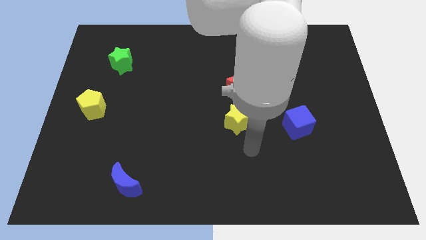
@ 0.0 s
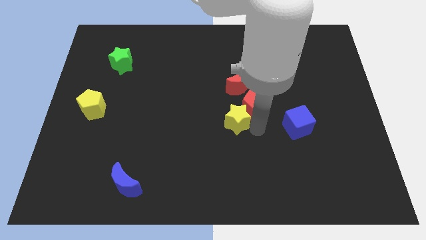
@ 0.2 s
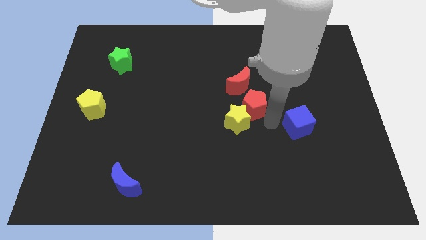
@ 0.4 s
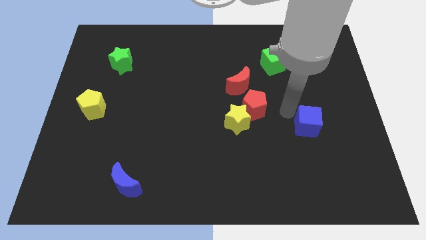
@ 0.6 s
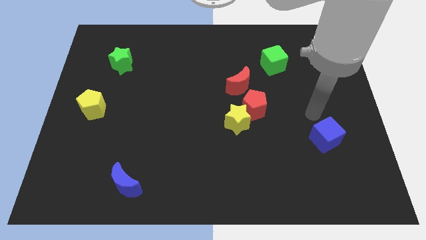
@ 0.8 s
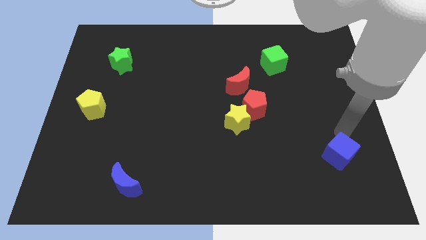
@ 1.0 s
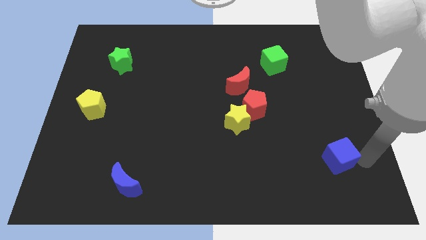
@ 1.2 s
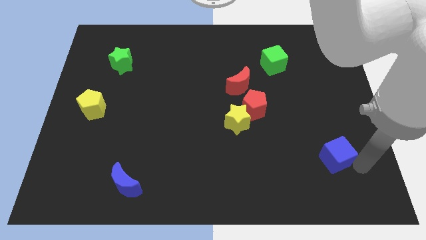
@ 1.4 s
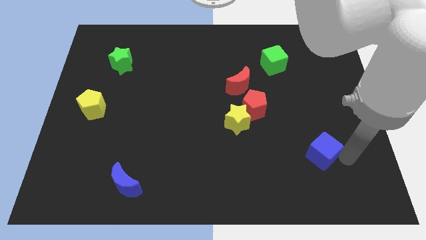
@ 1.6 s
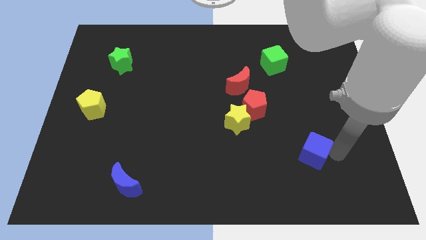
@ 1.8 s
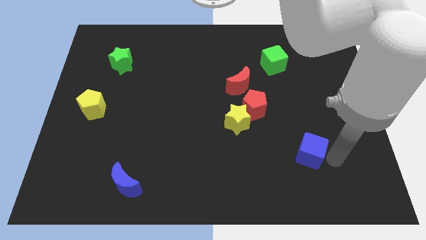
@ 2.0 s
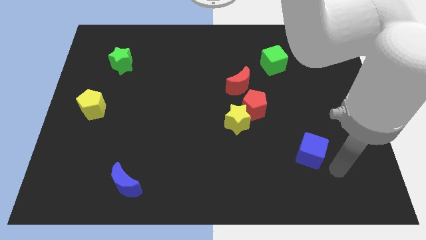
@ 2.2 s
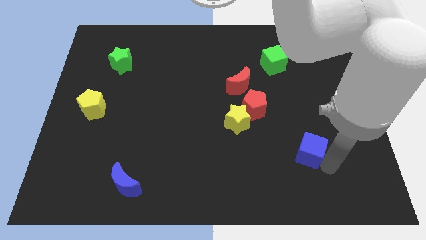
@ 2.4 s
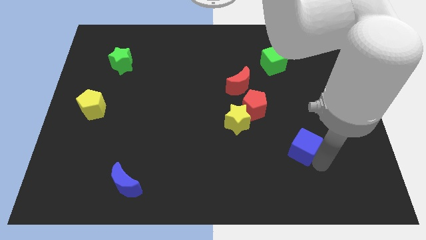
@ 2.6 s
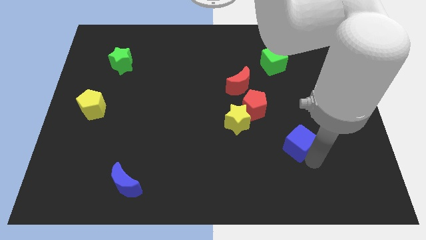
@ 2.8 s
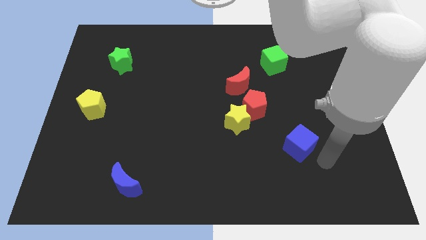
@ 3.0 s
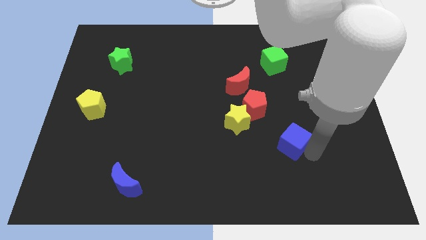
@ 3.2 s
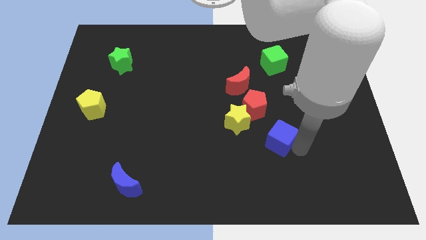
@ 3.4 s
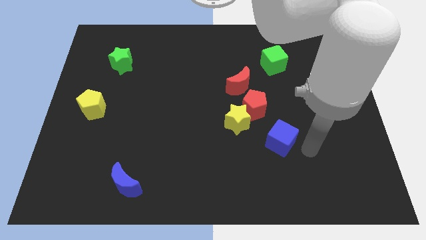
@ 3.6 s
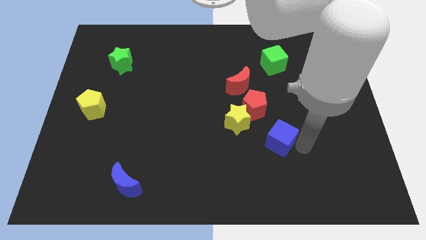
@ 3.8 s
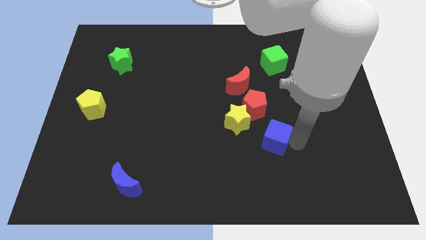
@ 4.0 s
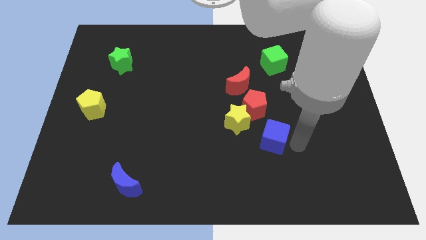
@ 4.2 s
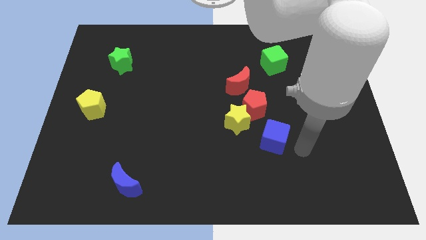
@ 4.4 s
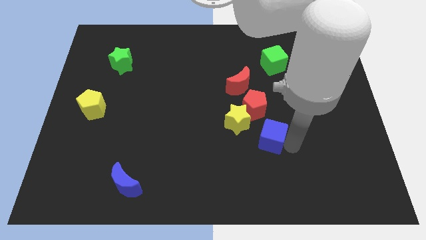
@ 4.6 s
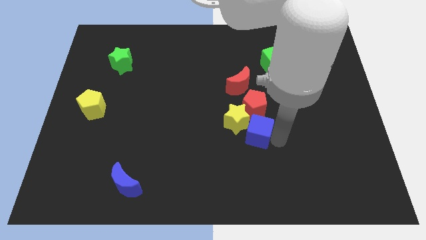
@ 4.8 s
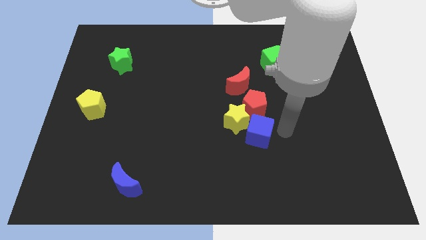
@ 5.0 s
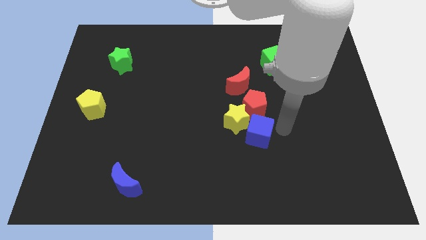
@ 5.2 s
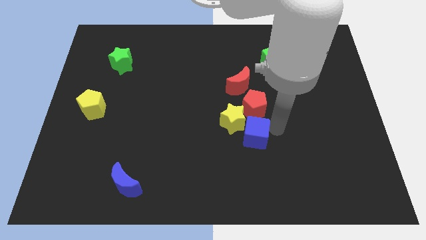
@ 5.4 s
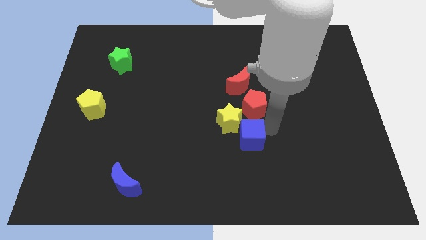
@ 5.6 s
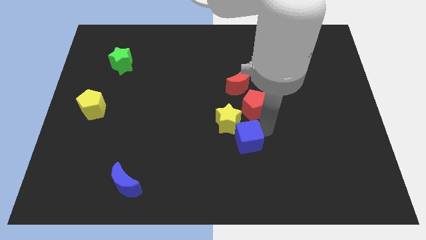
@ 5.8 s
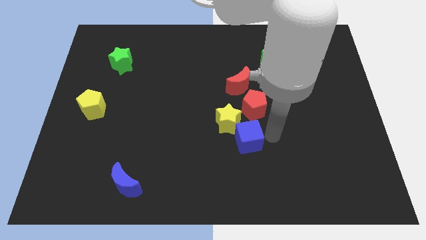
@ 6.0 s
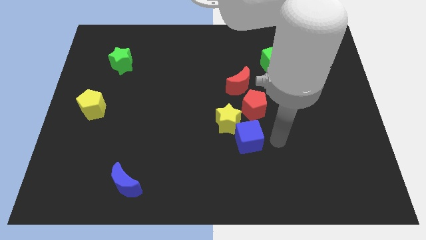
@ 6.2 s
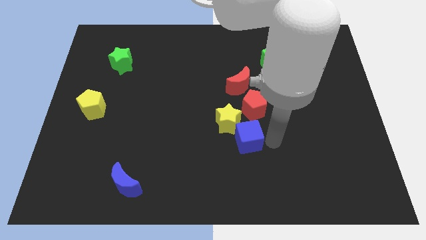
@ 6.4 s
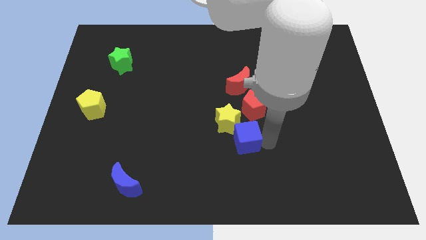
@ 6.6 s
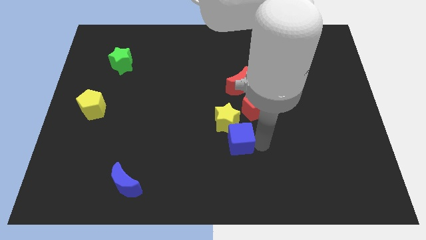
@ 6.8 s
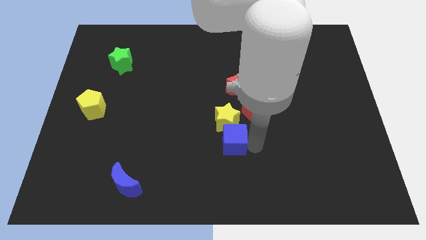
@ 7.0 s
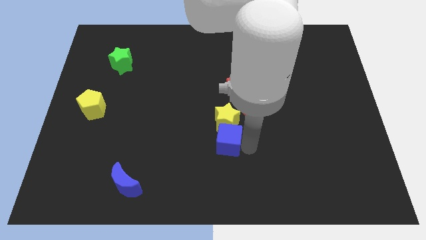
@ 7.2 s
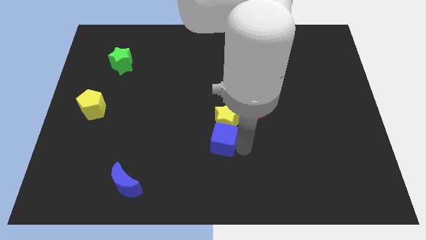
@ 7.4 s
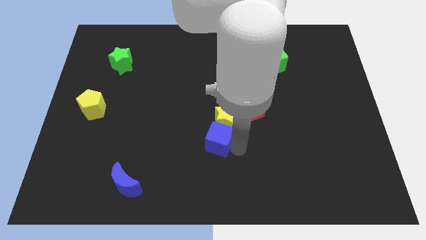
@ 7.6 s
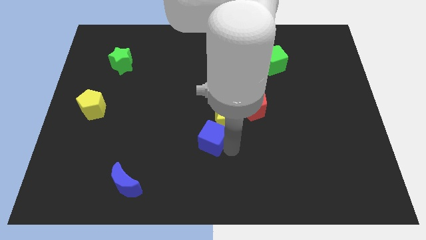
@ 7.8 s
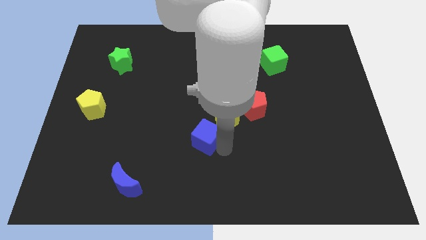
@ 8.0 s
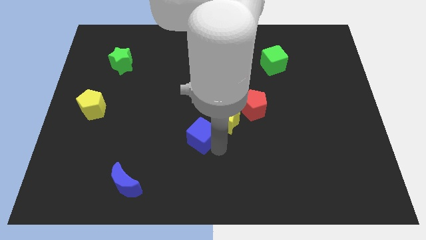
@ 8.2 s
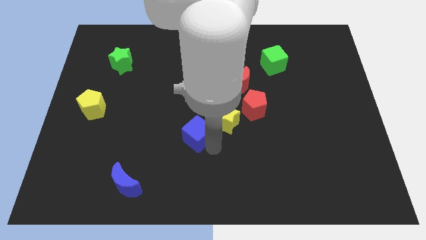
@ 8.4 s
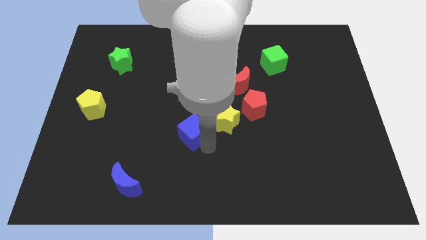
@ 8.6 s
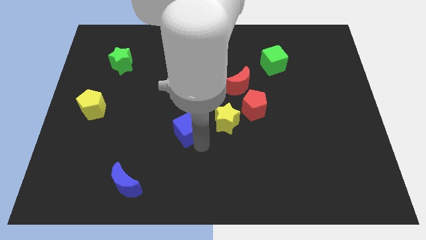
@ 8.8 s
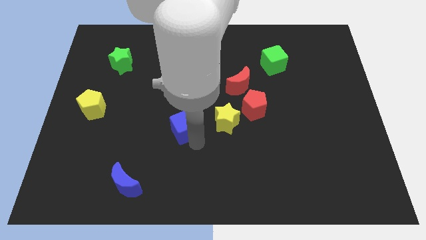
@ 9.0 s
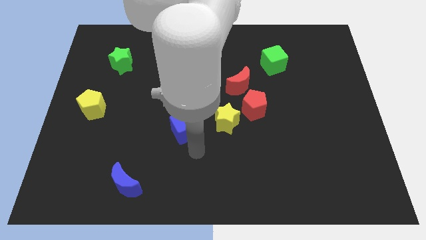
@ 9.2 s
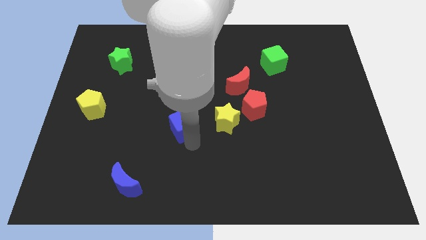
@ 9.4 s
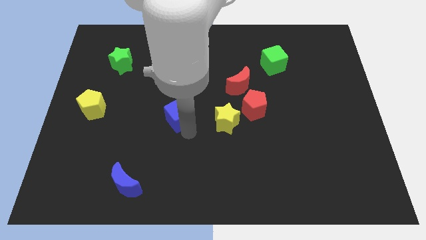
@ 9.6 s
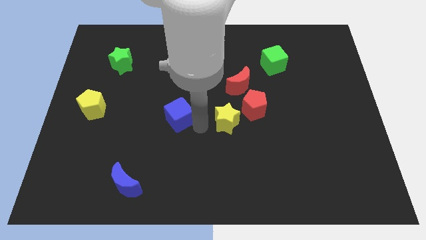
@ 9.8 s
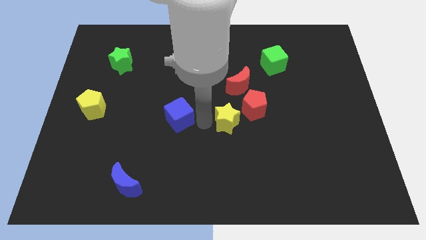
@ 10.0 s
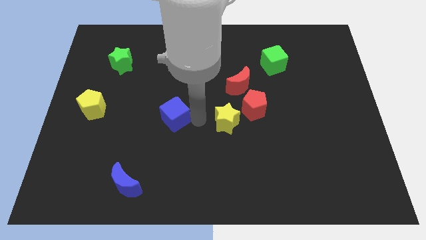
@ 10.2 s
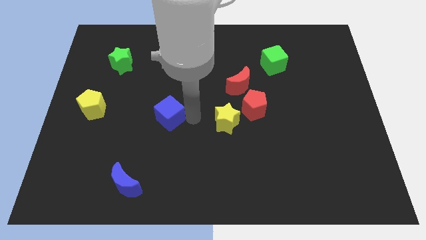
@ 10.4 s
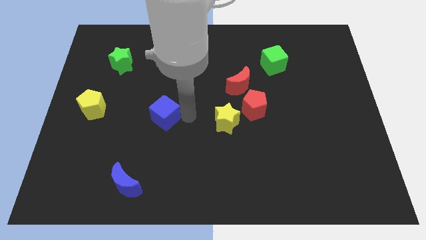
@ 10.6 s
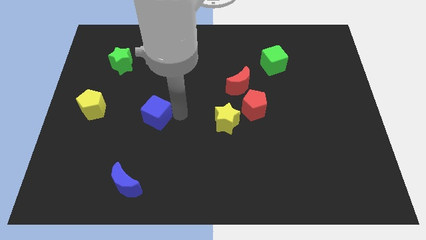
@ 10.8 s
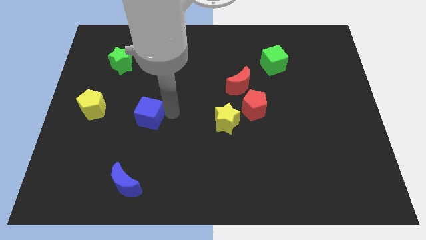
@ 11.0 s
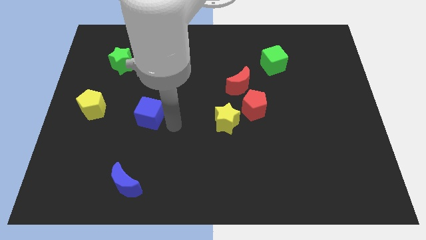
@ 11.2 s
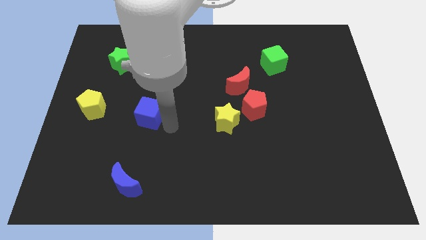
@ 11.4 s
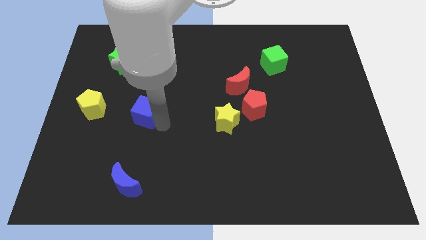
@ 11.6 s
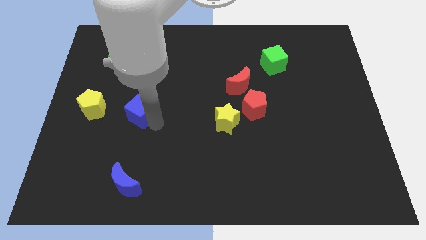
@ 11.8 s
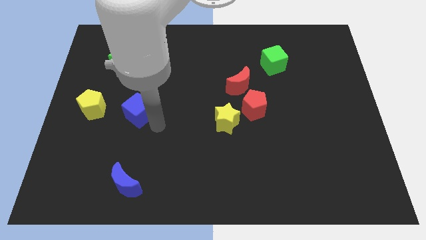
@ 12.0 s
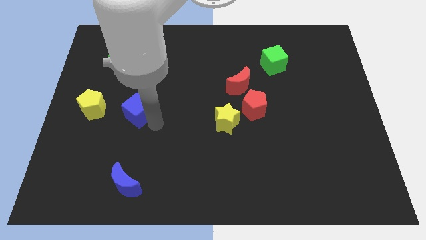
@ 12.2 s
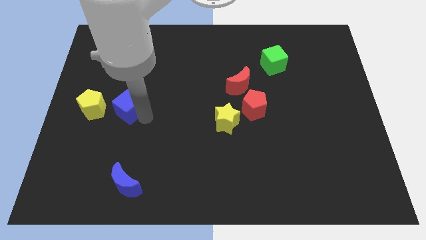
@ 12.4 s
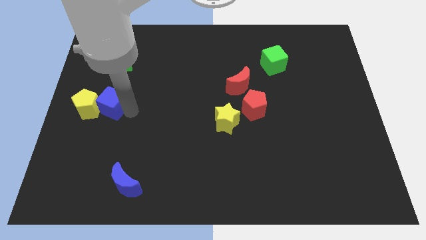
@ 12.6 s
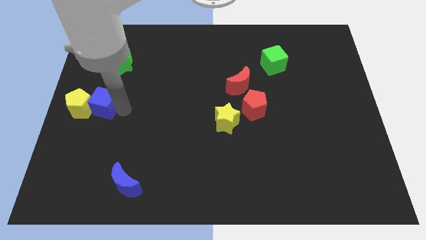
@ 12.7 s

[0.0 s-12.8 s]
push the blue cube to the center left
